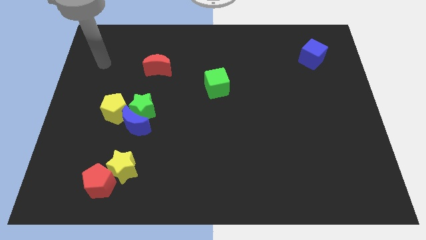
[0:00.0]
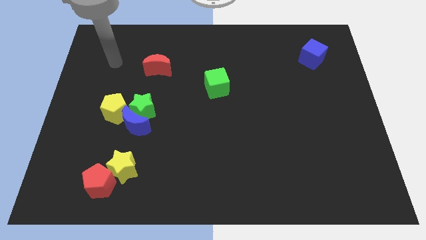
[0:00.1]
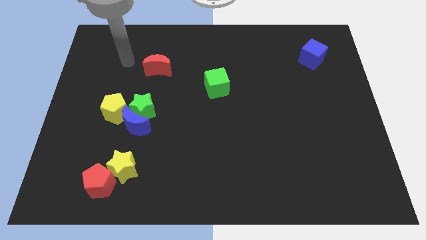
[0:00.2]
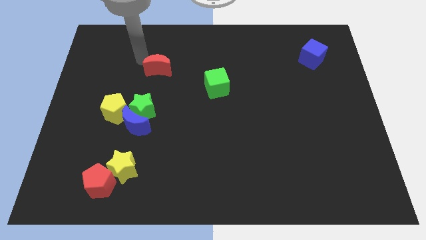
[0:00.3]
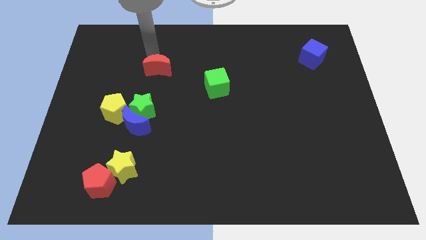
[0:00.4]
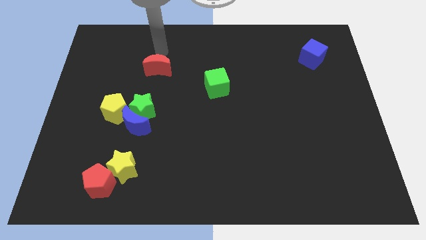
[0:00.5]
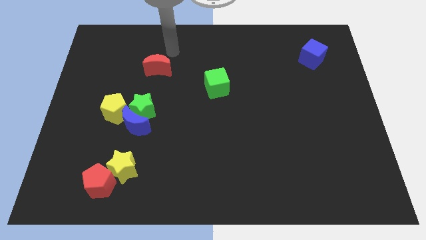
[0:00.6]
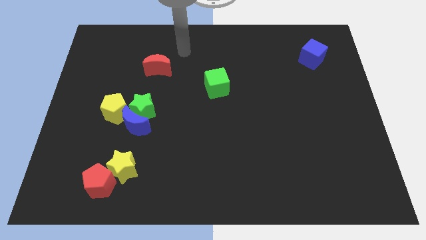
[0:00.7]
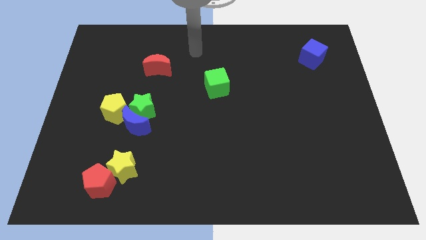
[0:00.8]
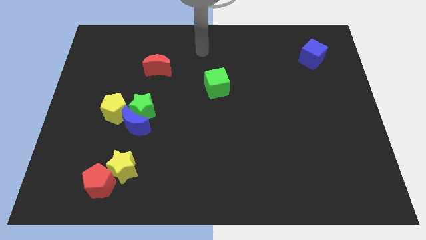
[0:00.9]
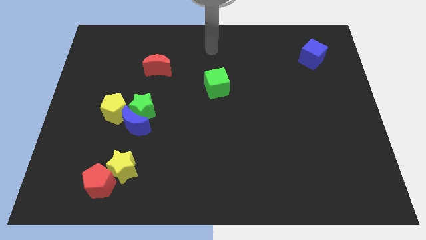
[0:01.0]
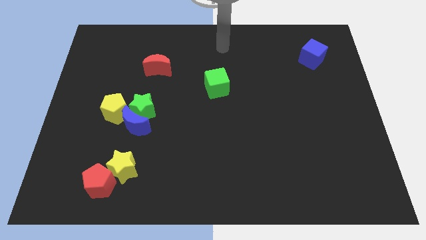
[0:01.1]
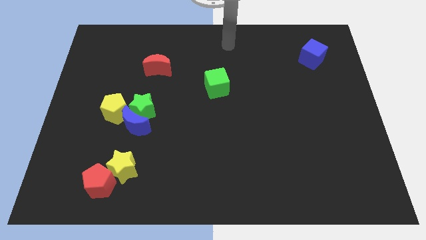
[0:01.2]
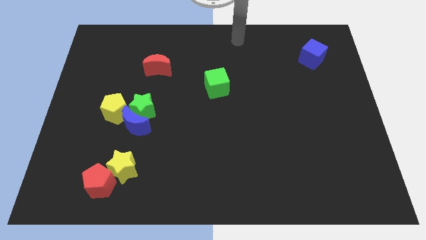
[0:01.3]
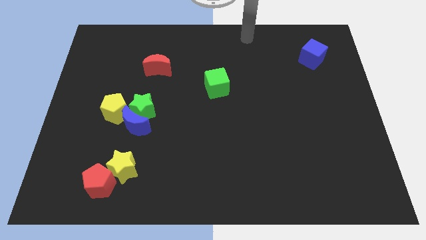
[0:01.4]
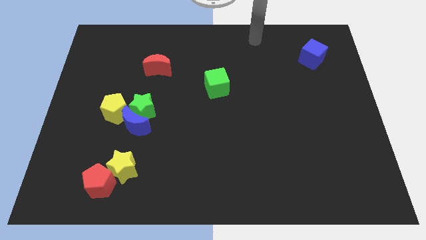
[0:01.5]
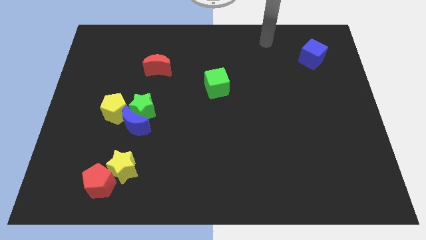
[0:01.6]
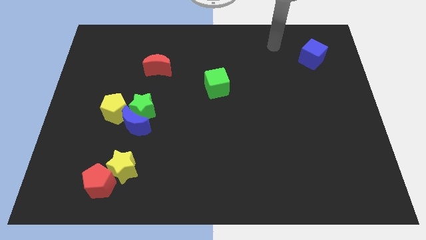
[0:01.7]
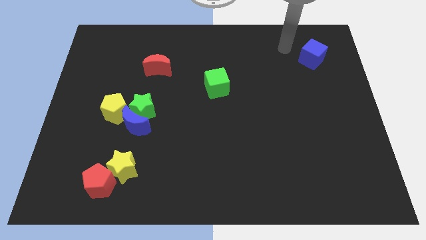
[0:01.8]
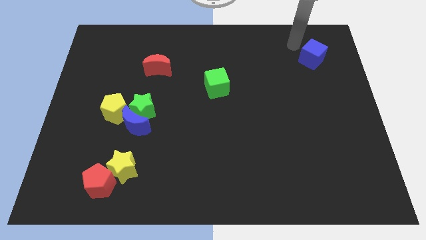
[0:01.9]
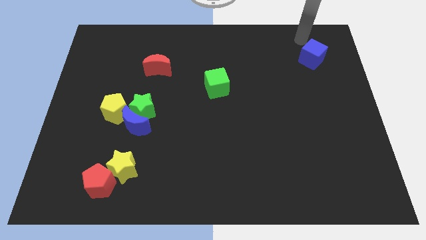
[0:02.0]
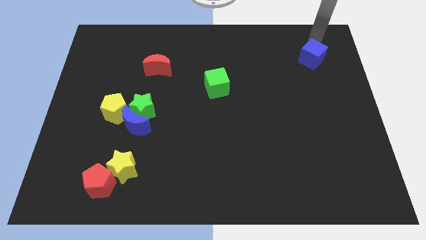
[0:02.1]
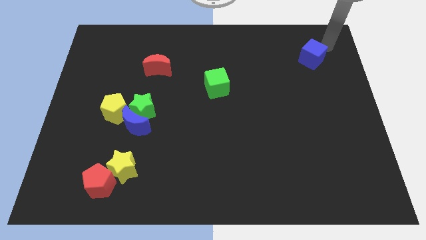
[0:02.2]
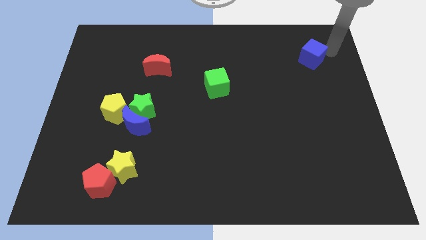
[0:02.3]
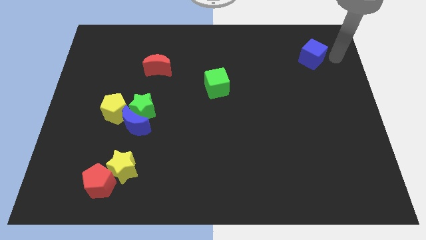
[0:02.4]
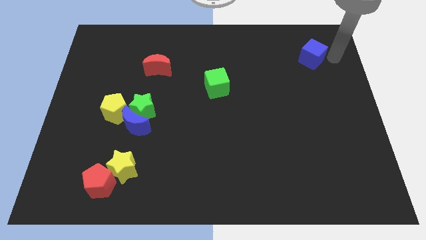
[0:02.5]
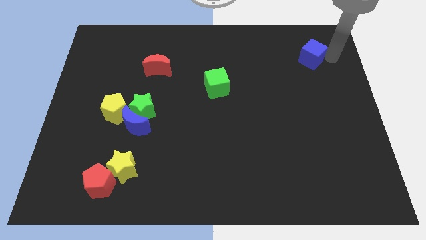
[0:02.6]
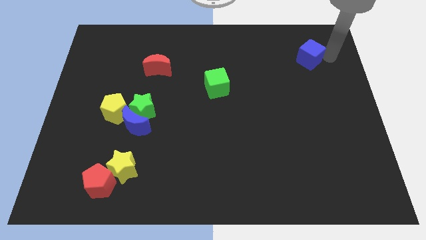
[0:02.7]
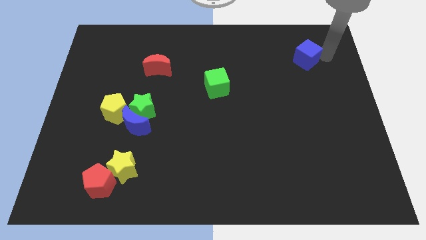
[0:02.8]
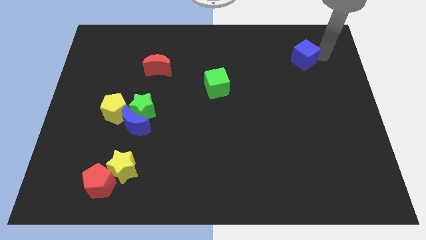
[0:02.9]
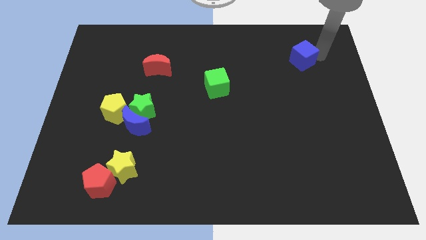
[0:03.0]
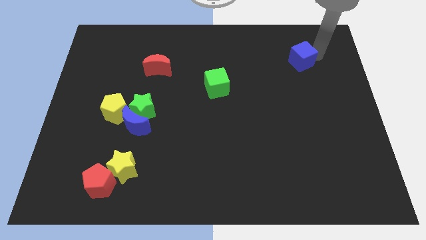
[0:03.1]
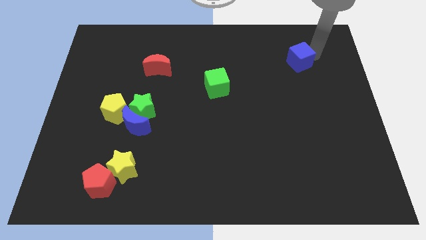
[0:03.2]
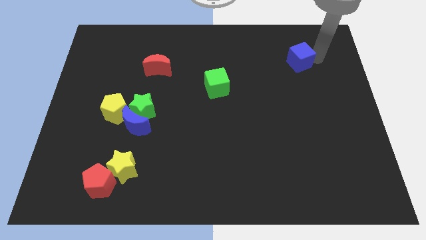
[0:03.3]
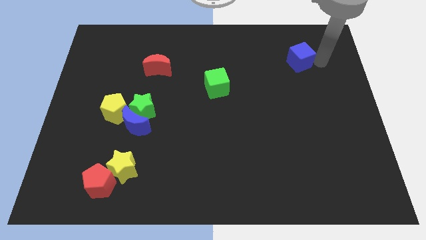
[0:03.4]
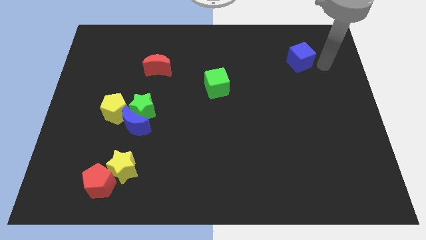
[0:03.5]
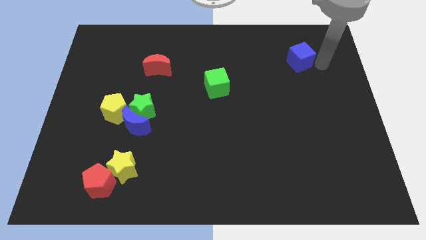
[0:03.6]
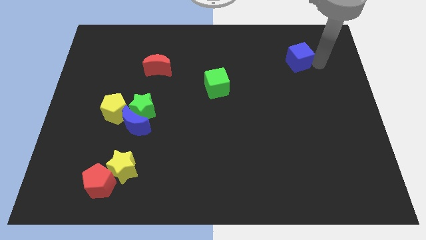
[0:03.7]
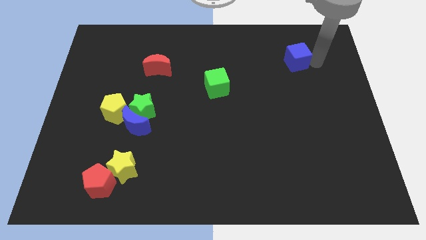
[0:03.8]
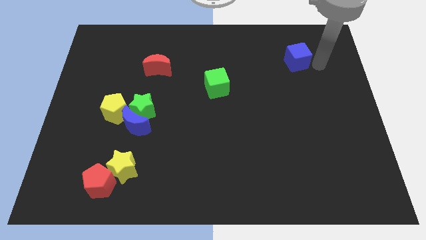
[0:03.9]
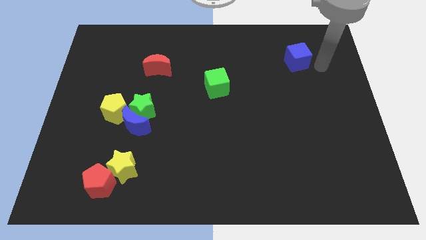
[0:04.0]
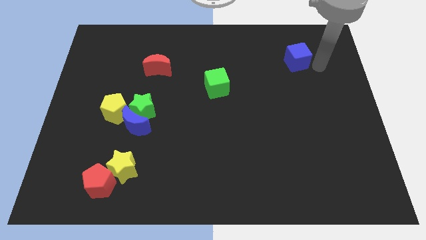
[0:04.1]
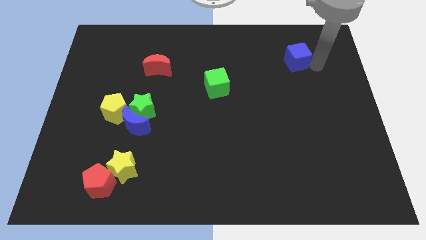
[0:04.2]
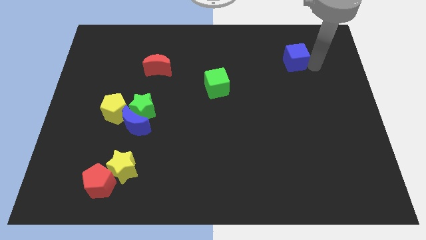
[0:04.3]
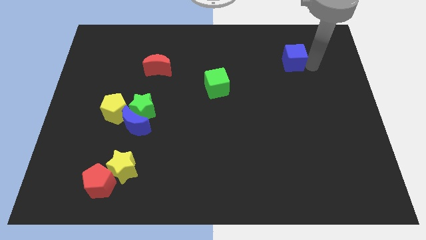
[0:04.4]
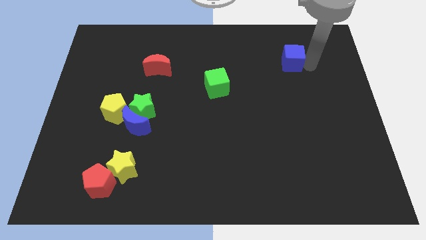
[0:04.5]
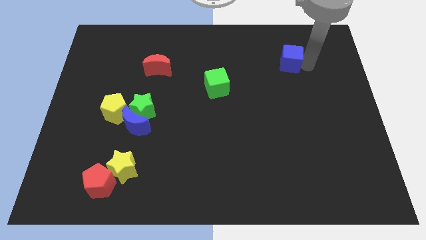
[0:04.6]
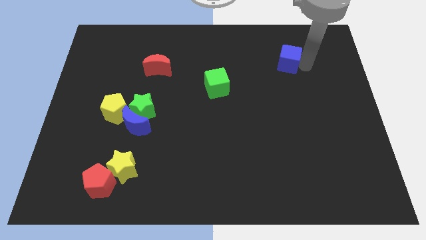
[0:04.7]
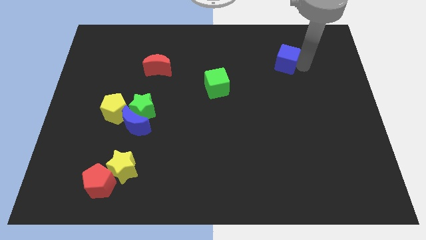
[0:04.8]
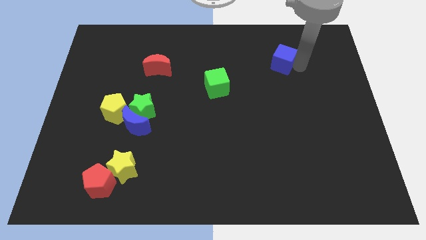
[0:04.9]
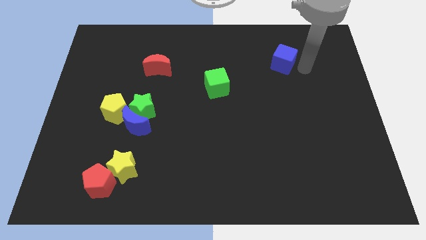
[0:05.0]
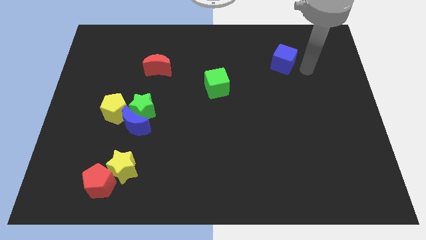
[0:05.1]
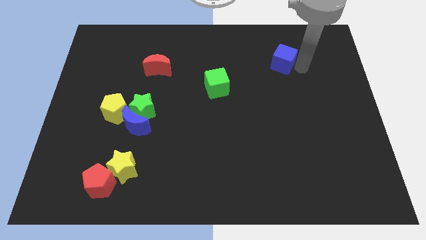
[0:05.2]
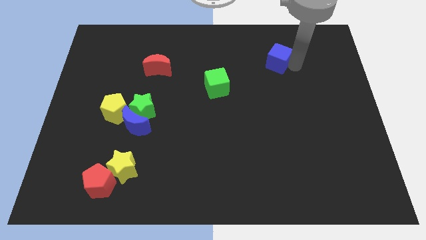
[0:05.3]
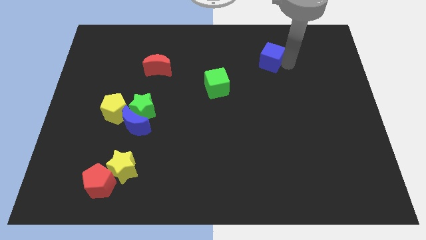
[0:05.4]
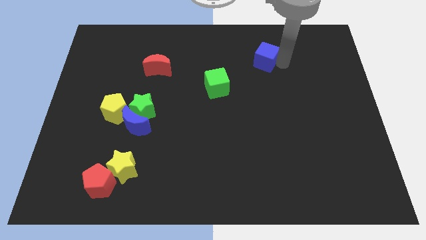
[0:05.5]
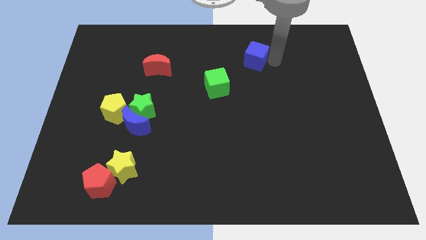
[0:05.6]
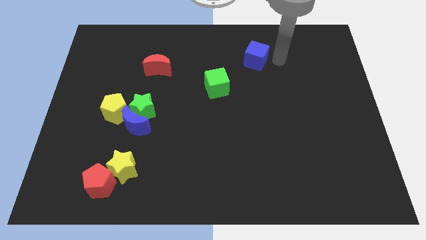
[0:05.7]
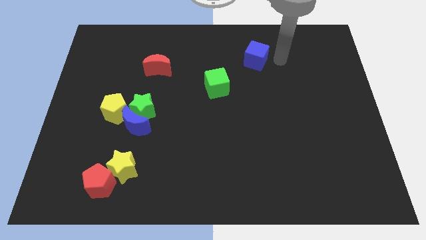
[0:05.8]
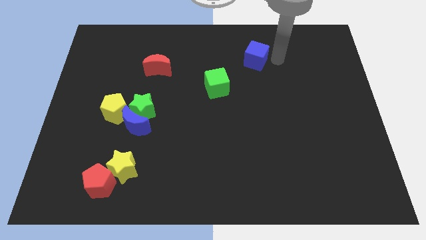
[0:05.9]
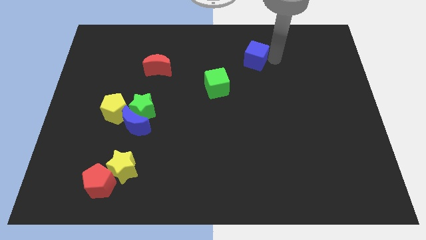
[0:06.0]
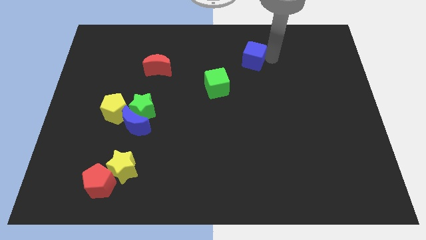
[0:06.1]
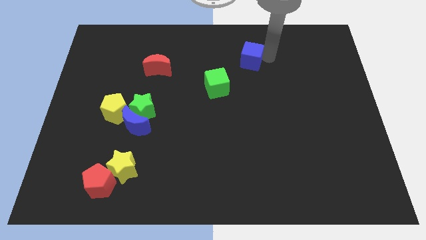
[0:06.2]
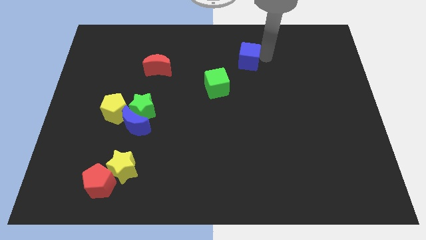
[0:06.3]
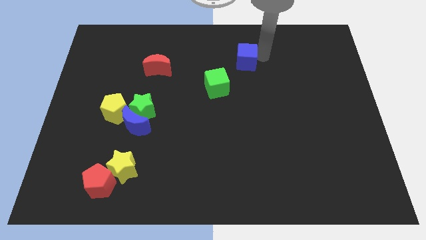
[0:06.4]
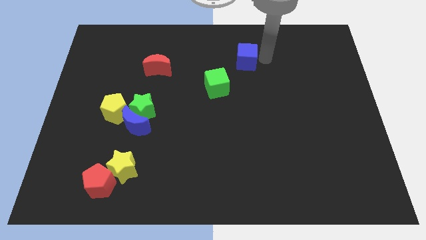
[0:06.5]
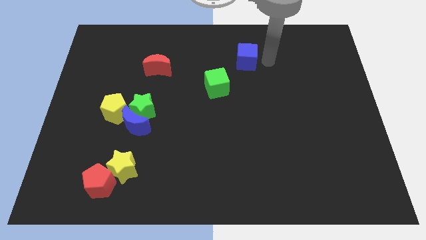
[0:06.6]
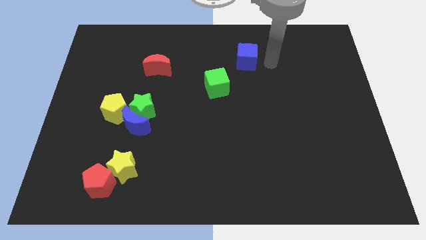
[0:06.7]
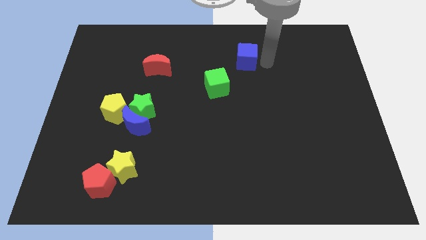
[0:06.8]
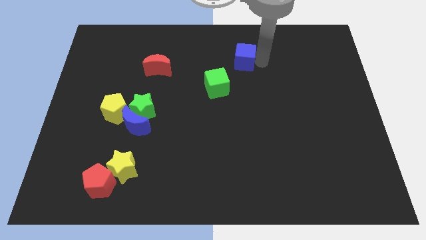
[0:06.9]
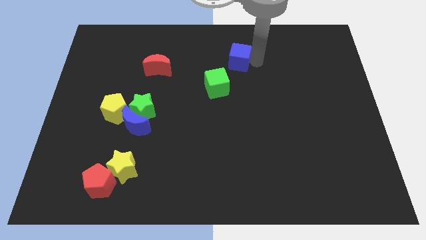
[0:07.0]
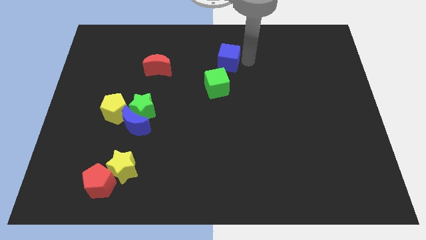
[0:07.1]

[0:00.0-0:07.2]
move the blue cube left

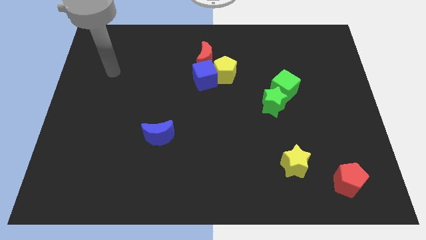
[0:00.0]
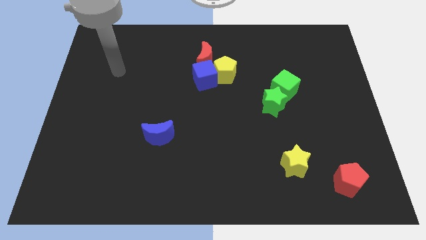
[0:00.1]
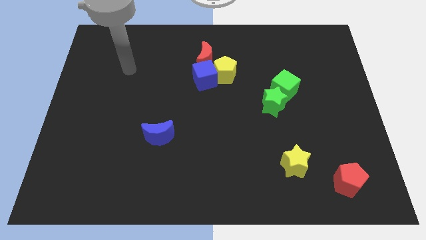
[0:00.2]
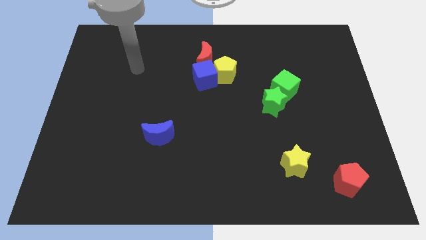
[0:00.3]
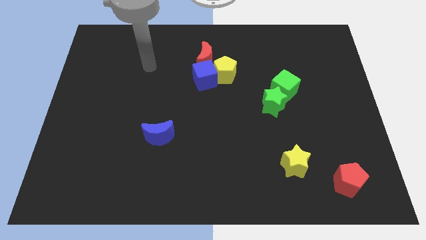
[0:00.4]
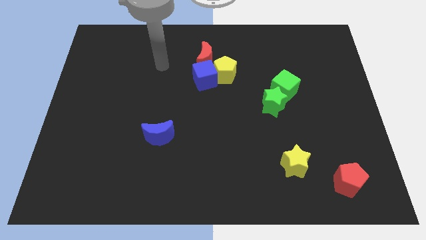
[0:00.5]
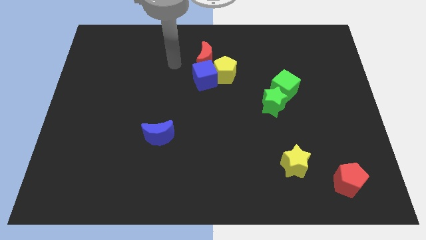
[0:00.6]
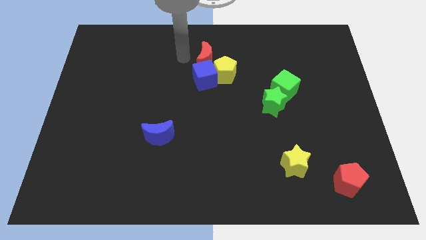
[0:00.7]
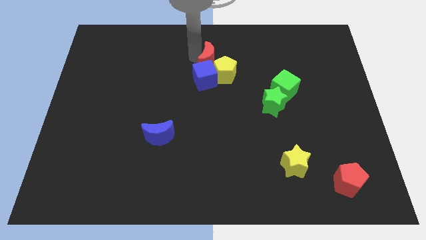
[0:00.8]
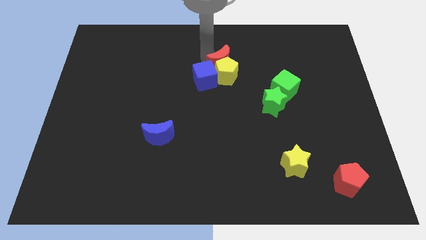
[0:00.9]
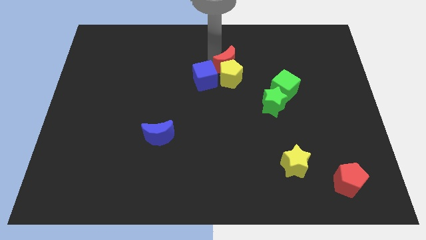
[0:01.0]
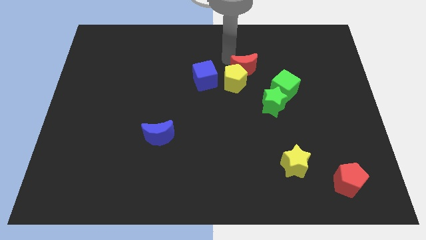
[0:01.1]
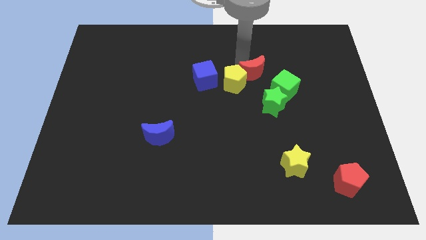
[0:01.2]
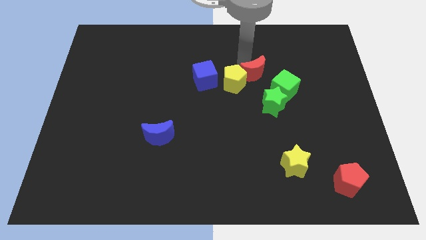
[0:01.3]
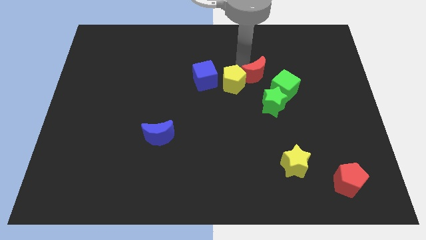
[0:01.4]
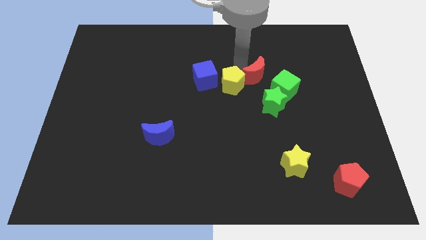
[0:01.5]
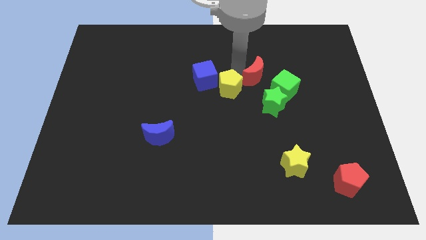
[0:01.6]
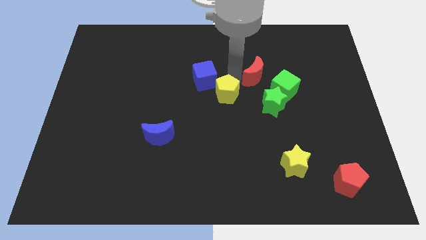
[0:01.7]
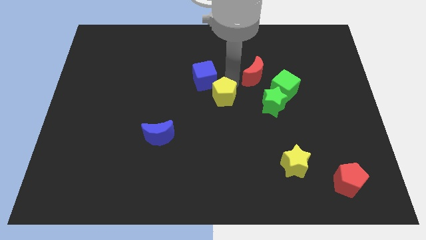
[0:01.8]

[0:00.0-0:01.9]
slightly push the yellow pentagon down
